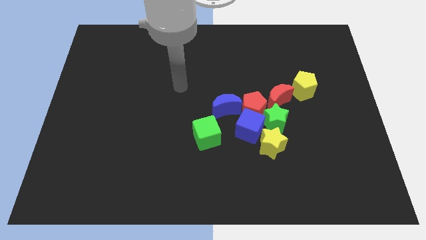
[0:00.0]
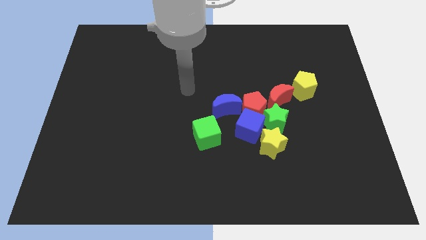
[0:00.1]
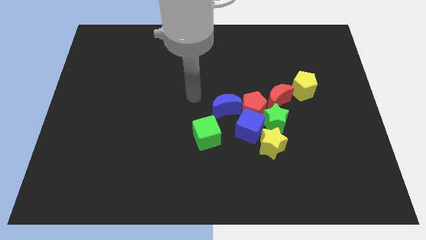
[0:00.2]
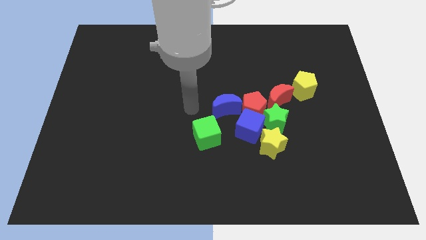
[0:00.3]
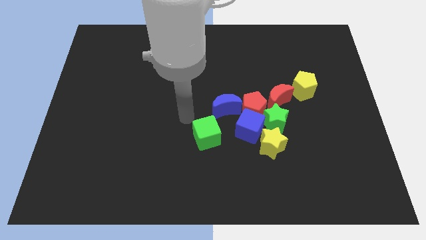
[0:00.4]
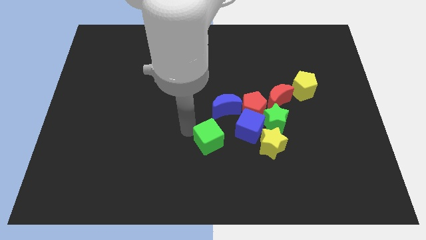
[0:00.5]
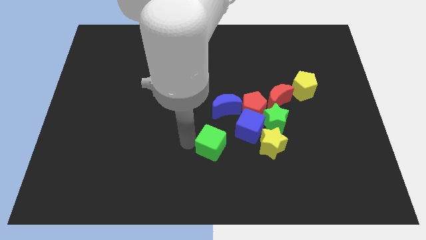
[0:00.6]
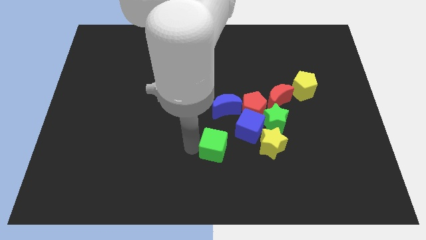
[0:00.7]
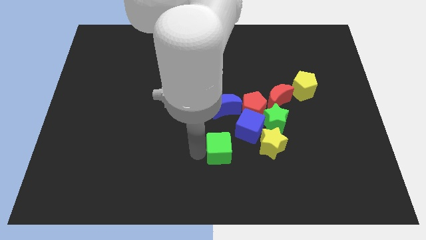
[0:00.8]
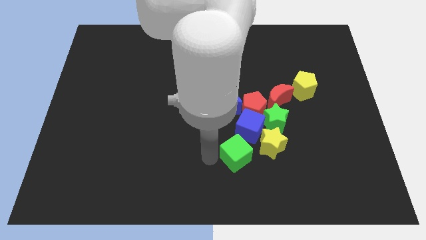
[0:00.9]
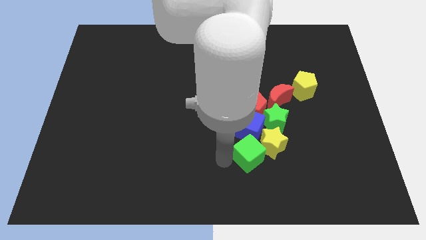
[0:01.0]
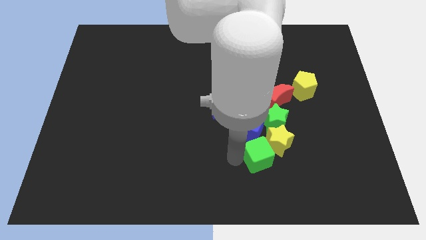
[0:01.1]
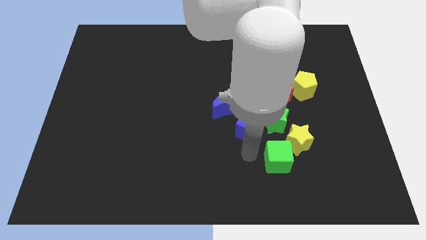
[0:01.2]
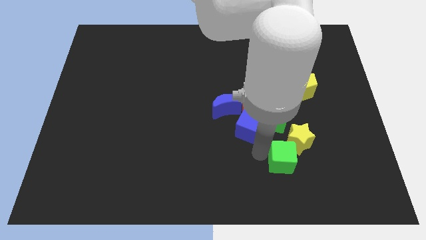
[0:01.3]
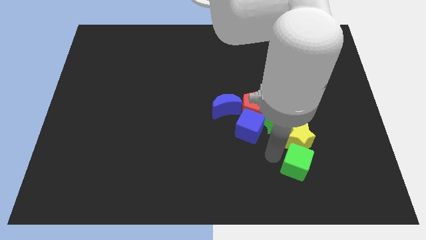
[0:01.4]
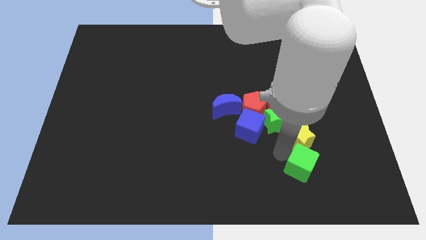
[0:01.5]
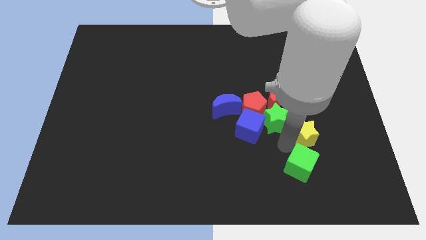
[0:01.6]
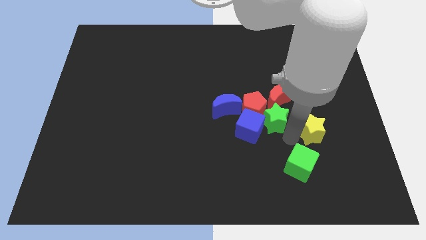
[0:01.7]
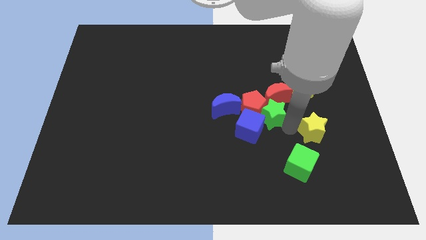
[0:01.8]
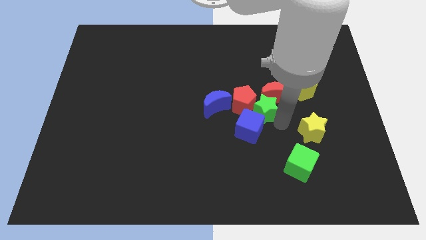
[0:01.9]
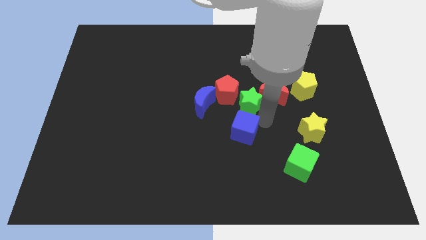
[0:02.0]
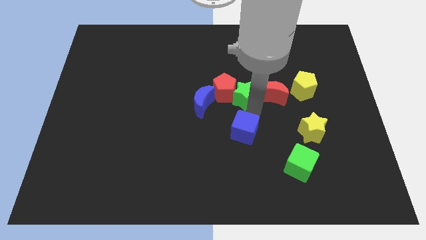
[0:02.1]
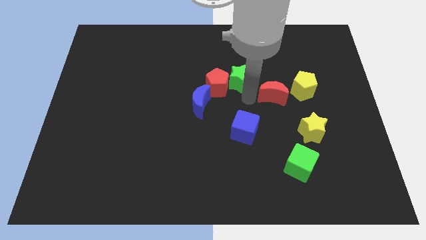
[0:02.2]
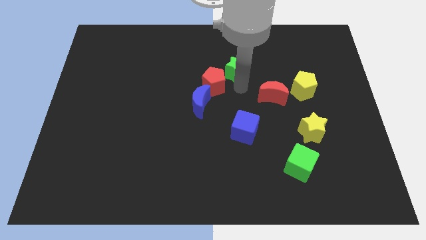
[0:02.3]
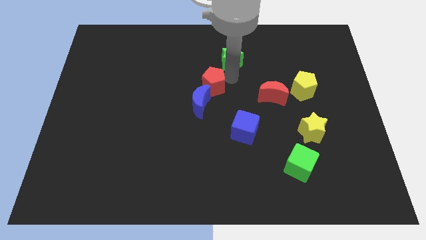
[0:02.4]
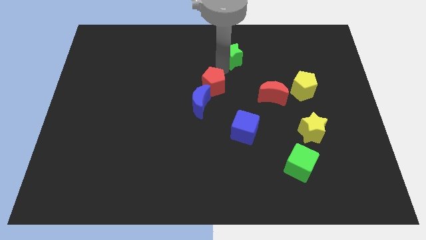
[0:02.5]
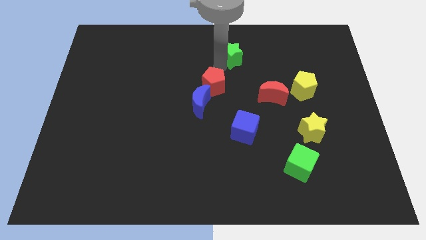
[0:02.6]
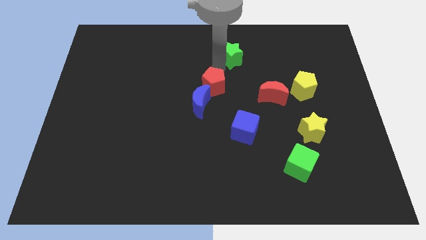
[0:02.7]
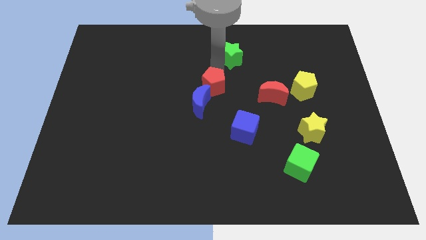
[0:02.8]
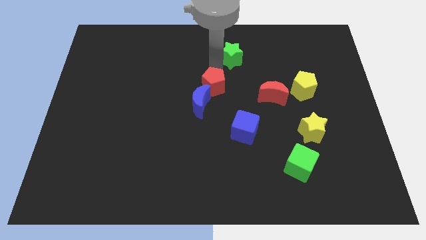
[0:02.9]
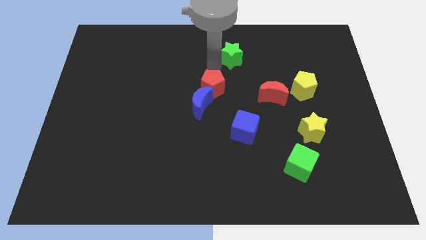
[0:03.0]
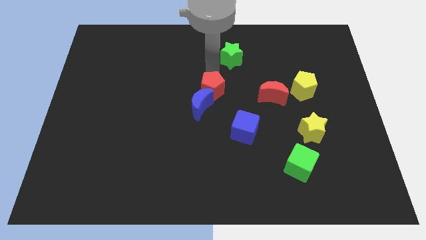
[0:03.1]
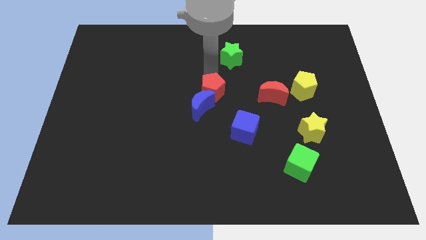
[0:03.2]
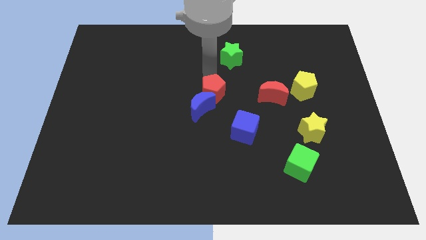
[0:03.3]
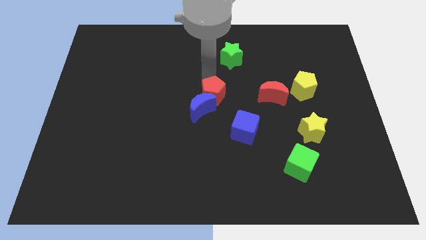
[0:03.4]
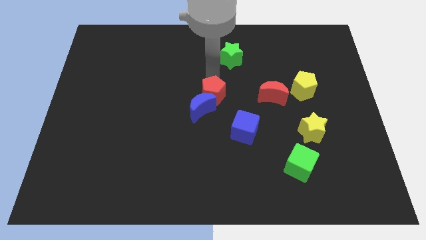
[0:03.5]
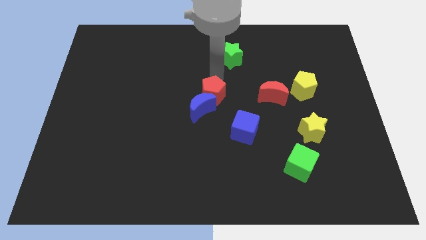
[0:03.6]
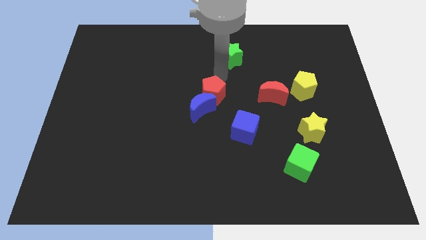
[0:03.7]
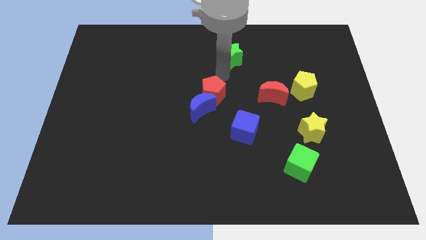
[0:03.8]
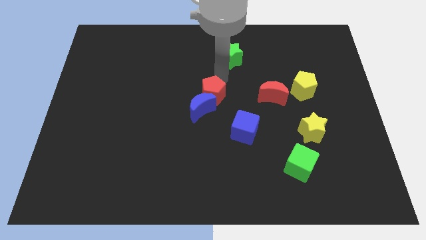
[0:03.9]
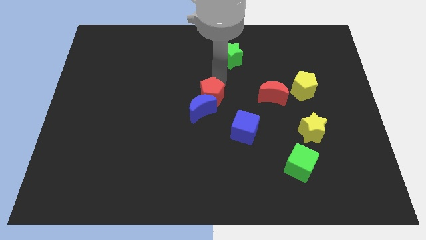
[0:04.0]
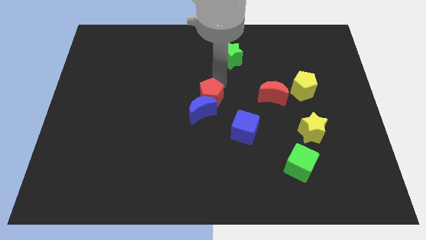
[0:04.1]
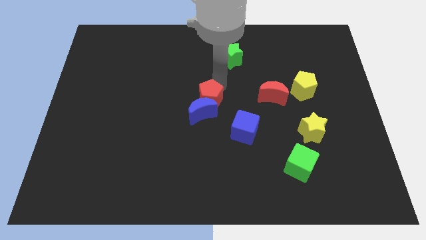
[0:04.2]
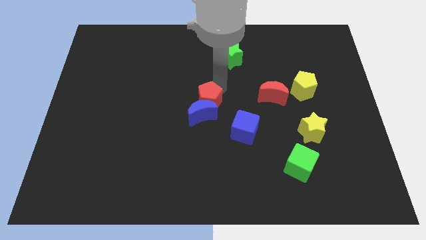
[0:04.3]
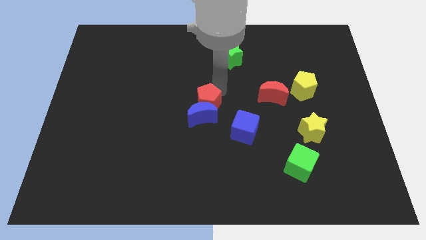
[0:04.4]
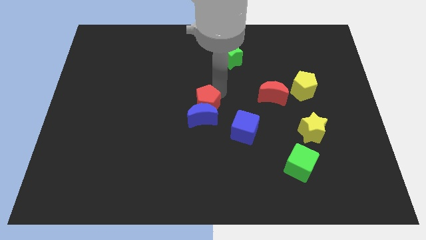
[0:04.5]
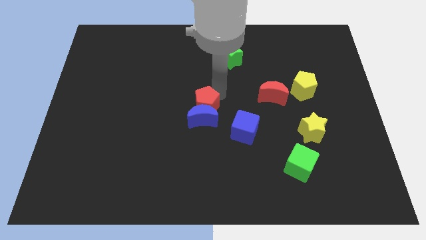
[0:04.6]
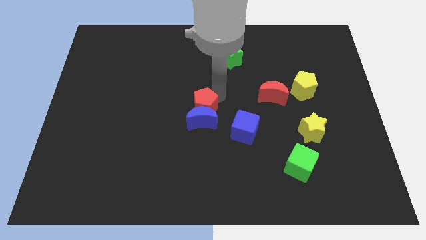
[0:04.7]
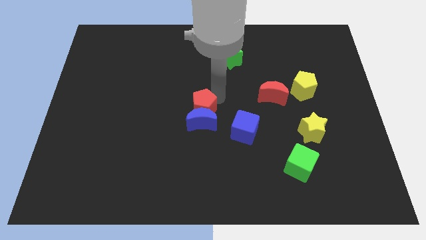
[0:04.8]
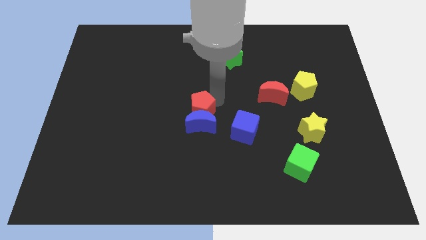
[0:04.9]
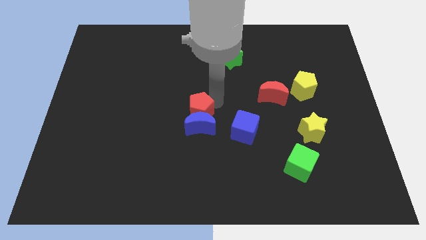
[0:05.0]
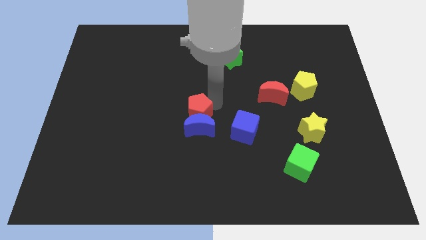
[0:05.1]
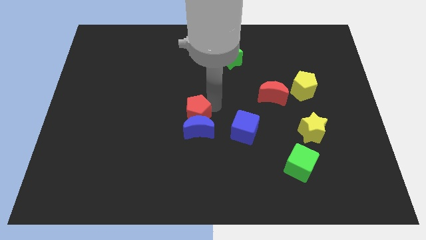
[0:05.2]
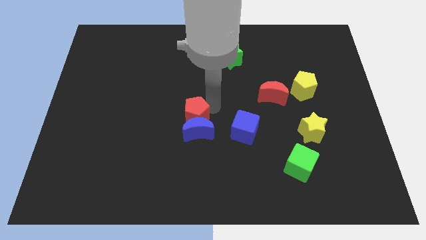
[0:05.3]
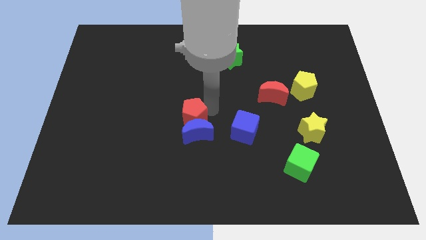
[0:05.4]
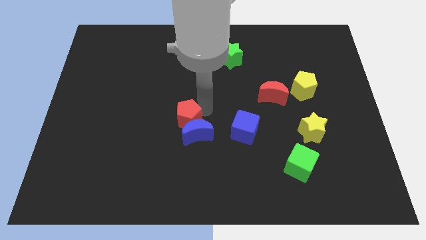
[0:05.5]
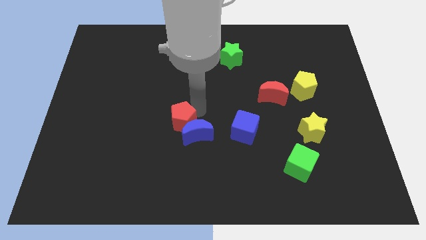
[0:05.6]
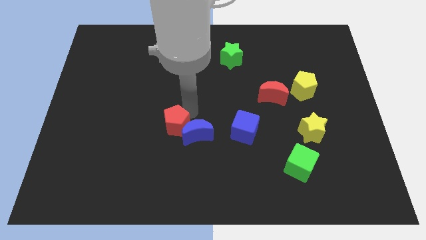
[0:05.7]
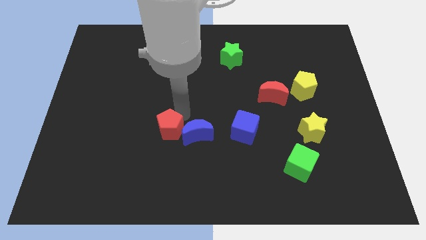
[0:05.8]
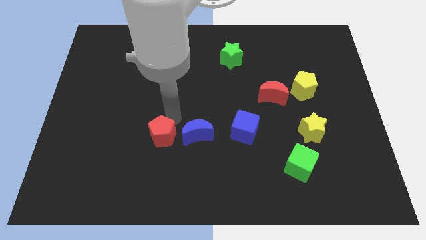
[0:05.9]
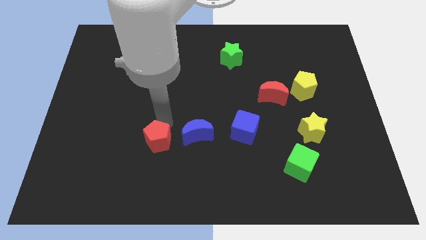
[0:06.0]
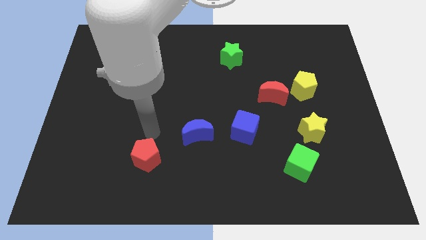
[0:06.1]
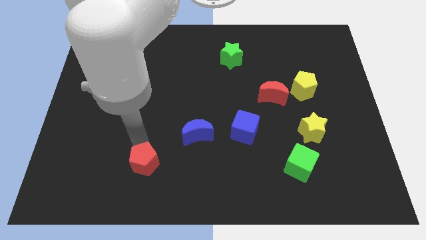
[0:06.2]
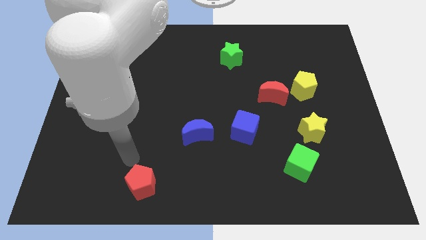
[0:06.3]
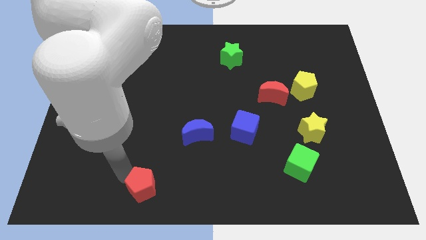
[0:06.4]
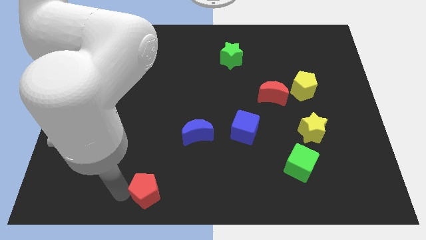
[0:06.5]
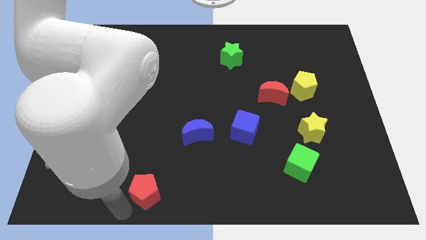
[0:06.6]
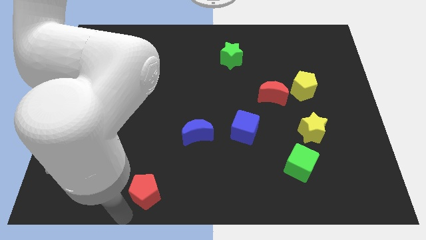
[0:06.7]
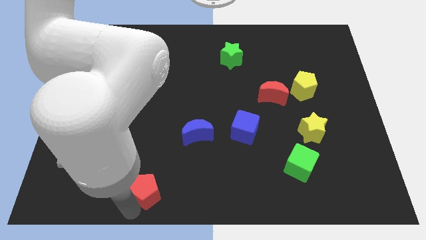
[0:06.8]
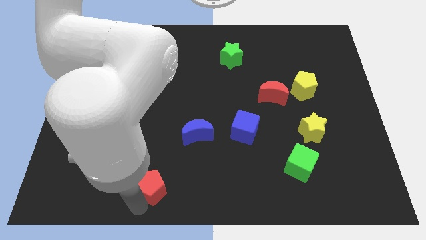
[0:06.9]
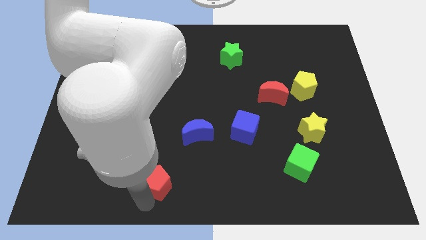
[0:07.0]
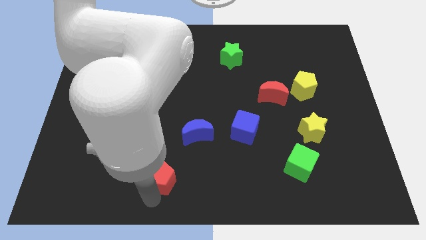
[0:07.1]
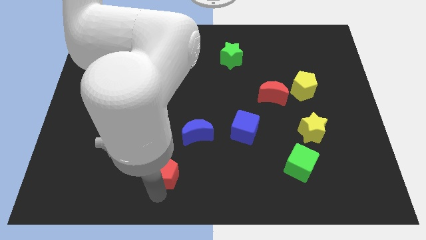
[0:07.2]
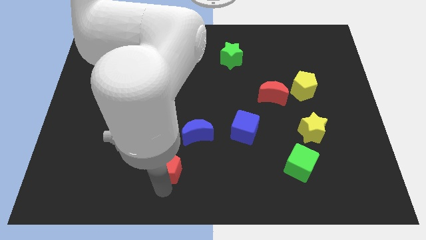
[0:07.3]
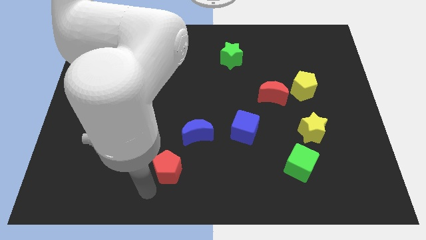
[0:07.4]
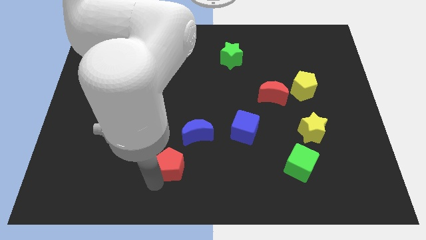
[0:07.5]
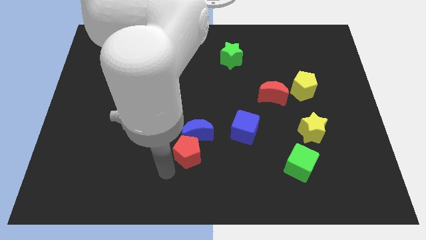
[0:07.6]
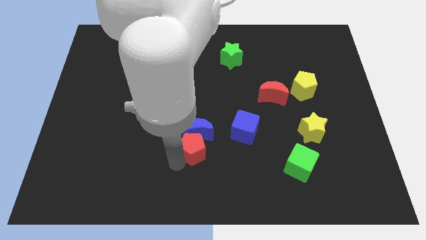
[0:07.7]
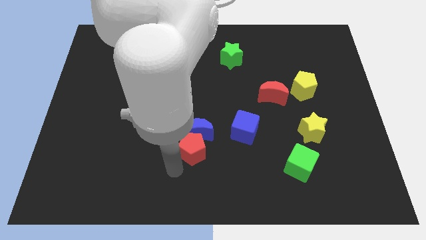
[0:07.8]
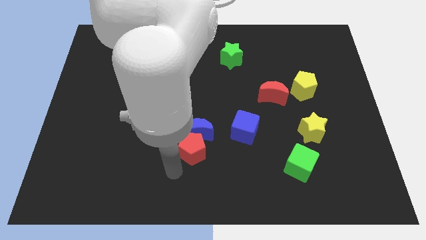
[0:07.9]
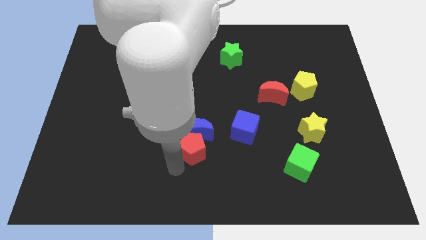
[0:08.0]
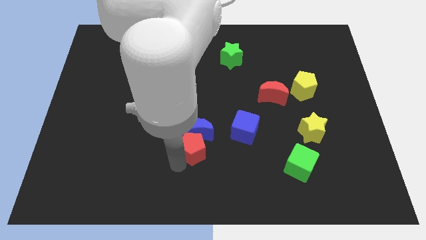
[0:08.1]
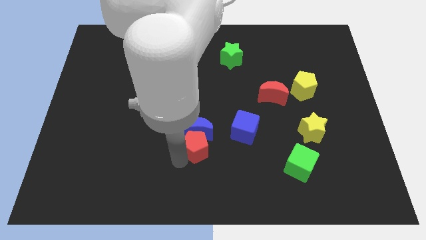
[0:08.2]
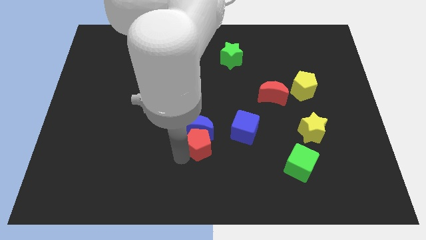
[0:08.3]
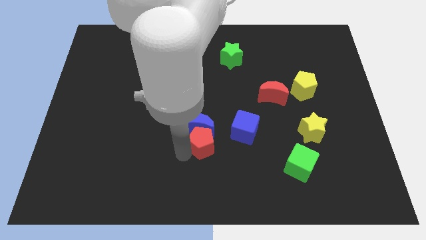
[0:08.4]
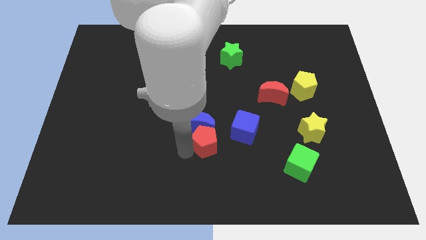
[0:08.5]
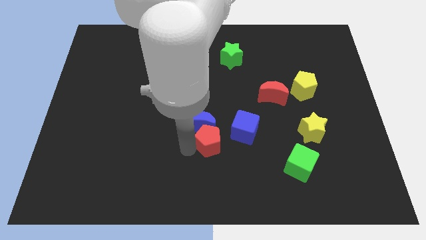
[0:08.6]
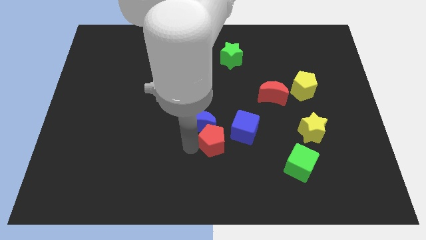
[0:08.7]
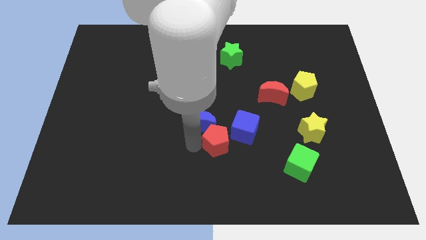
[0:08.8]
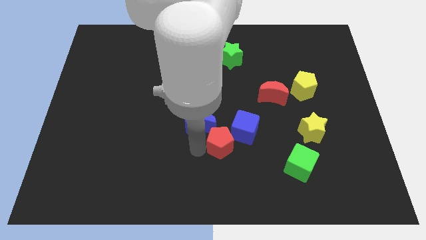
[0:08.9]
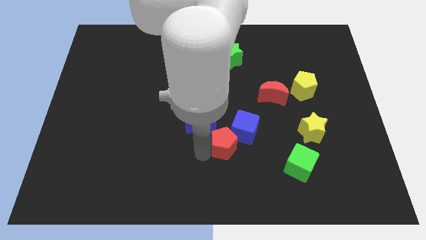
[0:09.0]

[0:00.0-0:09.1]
put the red pentagon to the bottom side of the blue cube
